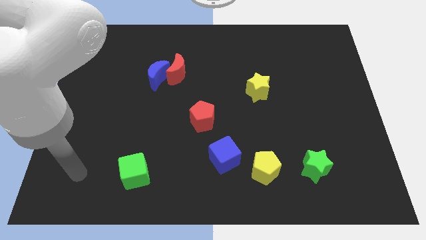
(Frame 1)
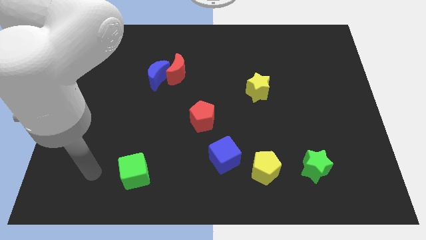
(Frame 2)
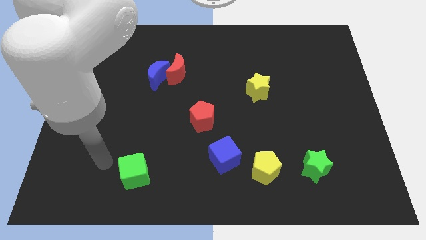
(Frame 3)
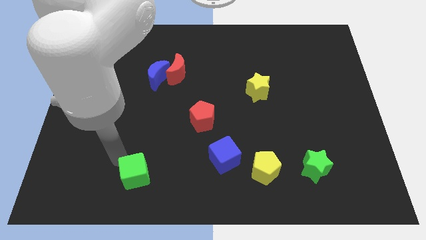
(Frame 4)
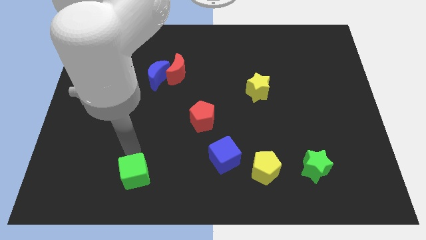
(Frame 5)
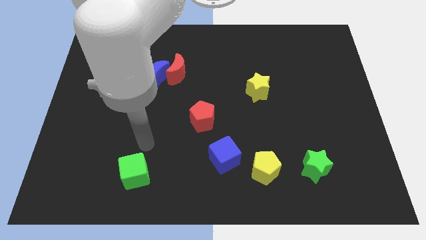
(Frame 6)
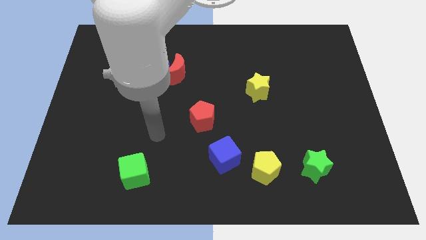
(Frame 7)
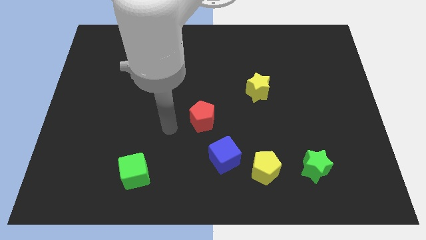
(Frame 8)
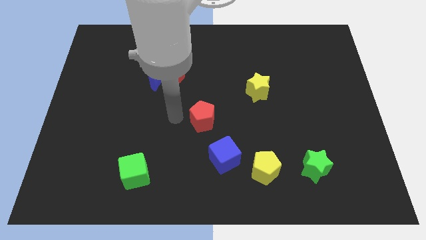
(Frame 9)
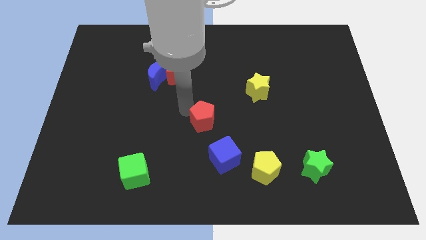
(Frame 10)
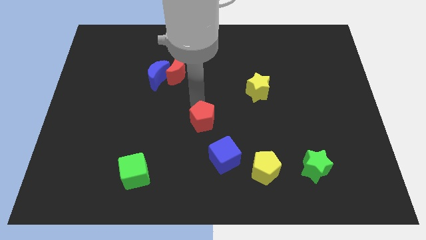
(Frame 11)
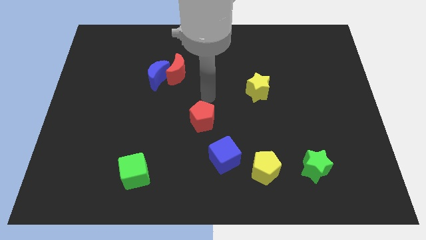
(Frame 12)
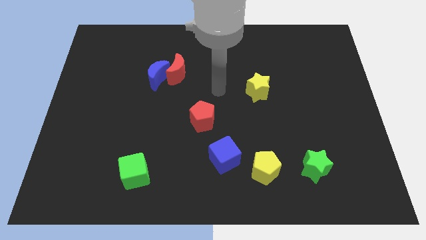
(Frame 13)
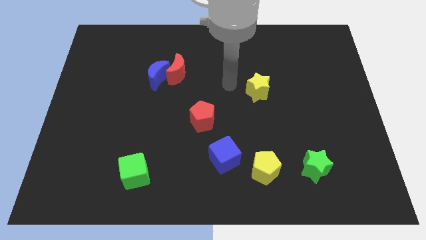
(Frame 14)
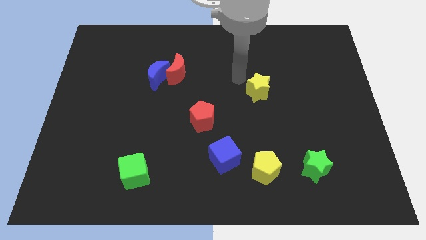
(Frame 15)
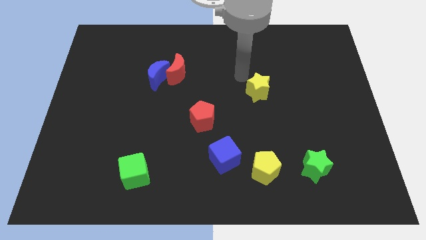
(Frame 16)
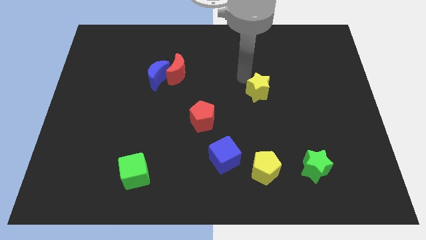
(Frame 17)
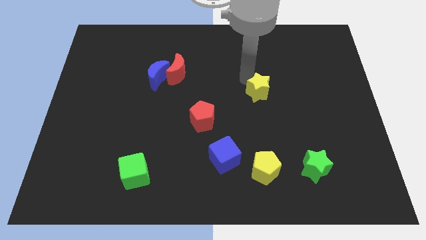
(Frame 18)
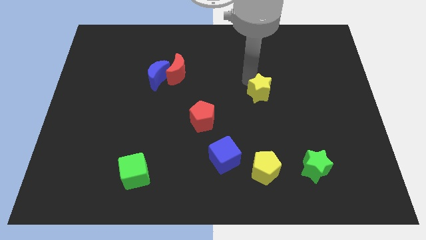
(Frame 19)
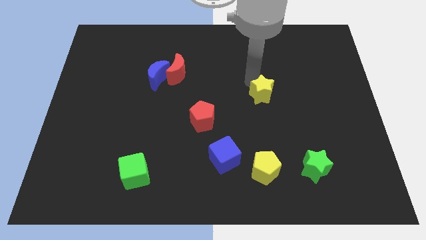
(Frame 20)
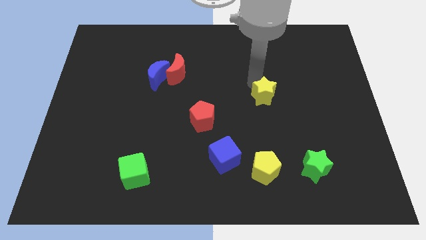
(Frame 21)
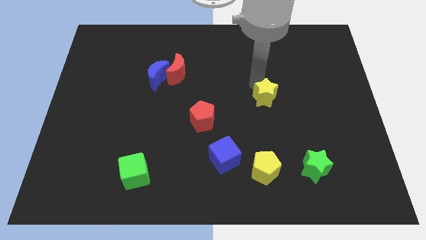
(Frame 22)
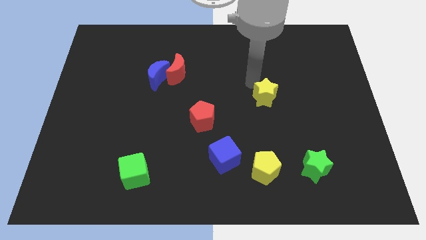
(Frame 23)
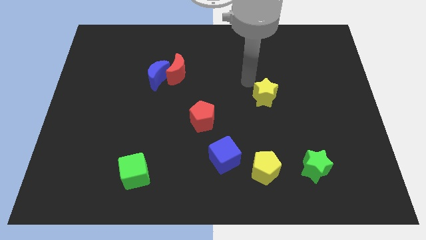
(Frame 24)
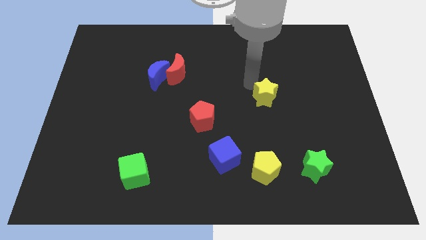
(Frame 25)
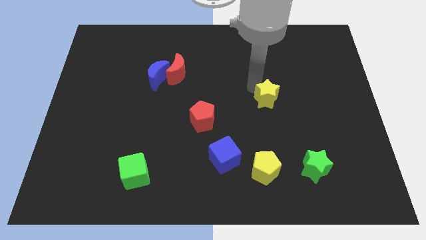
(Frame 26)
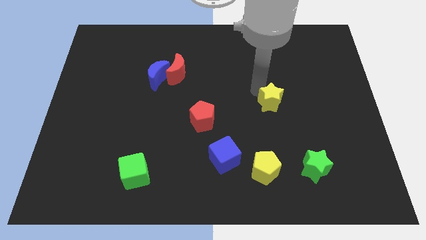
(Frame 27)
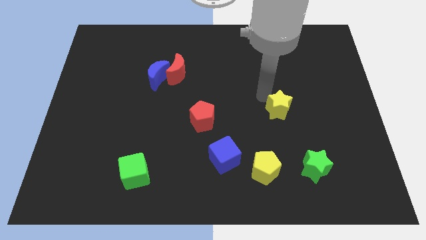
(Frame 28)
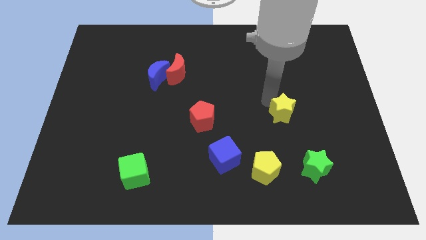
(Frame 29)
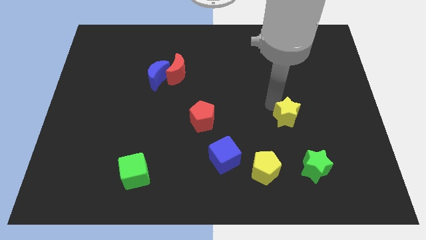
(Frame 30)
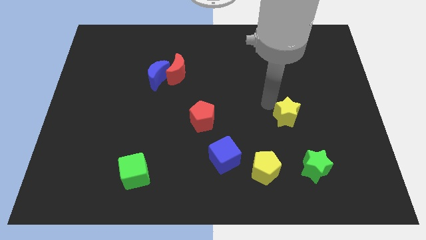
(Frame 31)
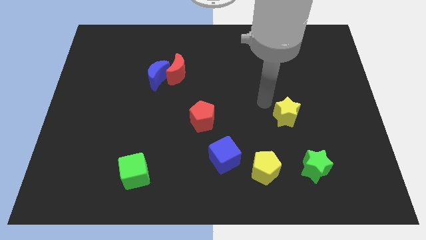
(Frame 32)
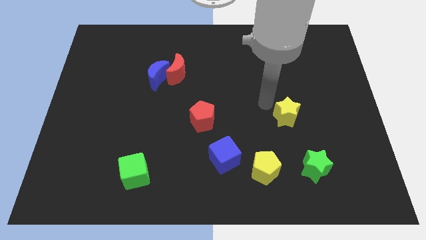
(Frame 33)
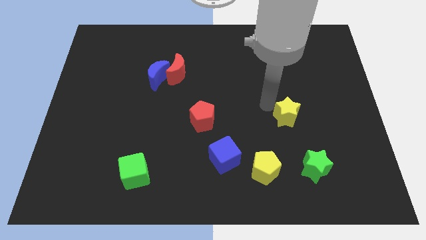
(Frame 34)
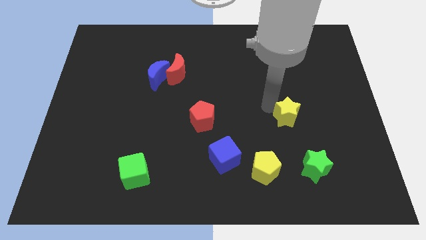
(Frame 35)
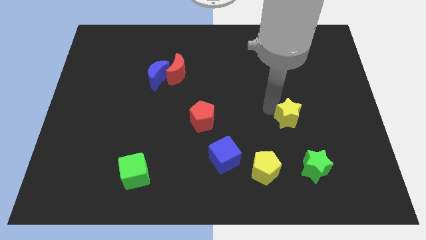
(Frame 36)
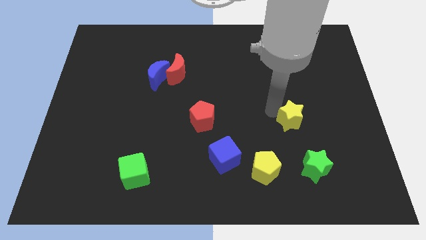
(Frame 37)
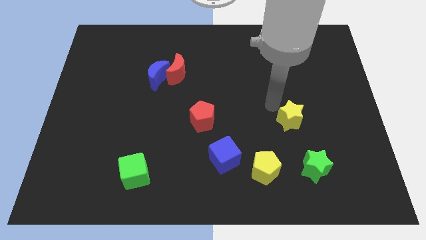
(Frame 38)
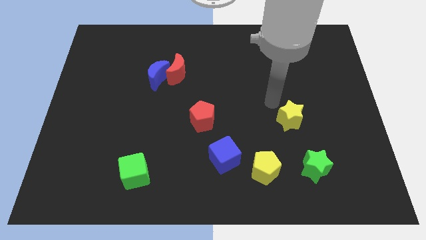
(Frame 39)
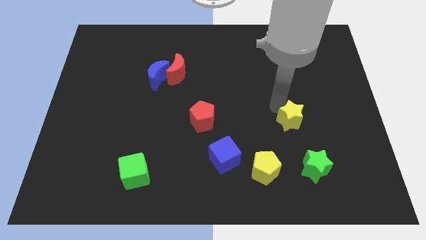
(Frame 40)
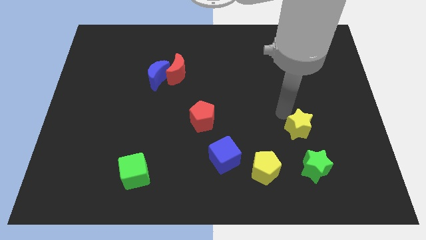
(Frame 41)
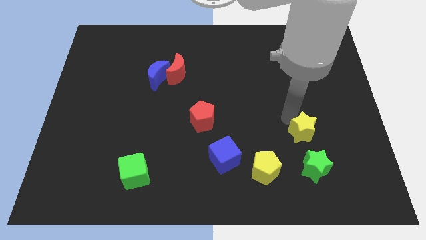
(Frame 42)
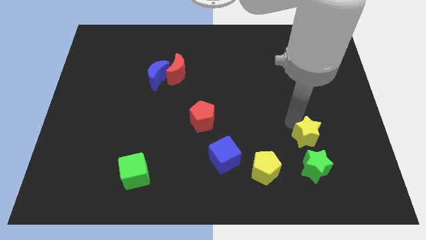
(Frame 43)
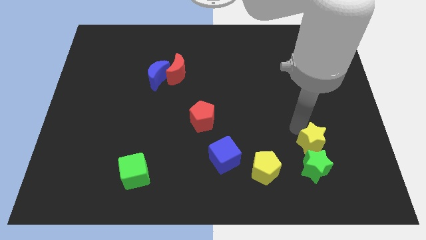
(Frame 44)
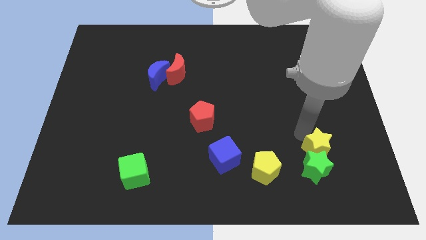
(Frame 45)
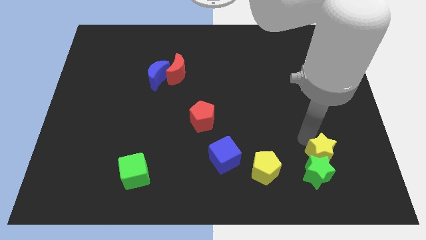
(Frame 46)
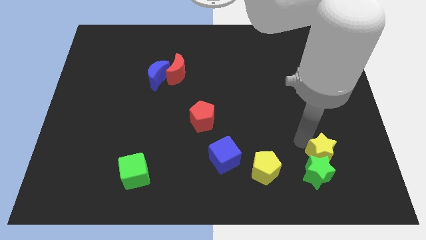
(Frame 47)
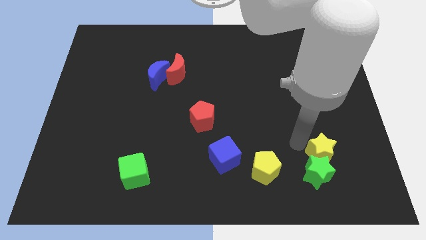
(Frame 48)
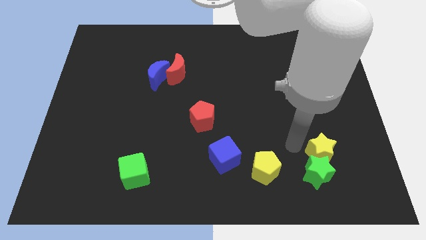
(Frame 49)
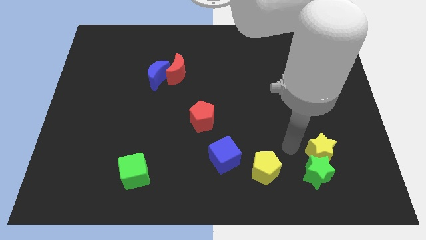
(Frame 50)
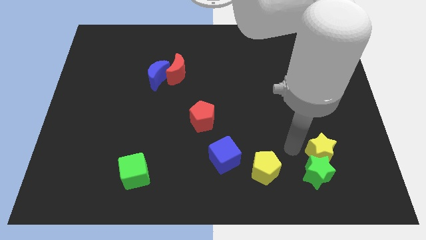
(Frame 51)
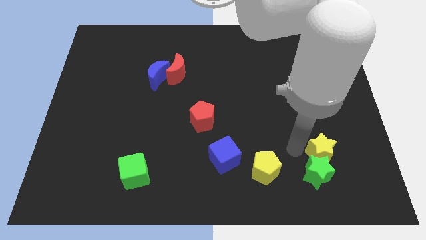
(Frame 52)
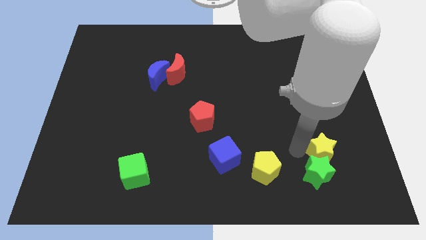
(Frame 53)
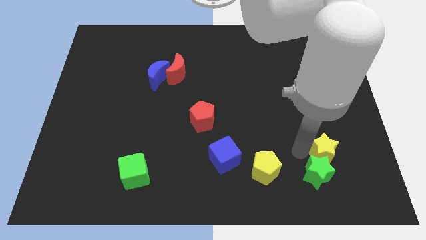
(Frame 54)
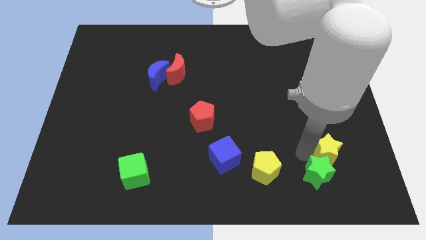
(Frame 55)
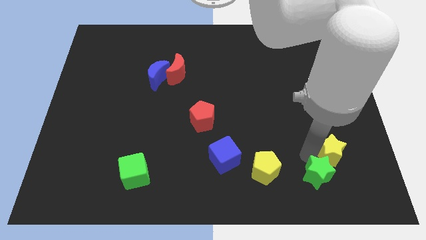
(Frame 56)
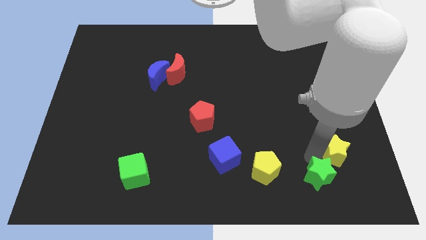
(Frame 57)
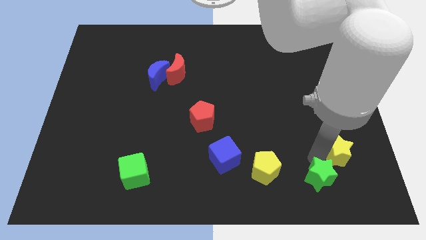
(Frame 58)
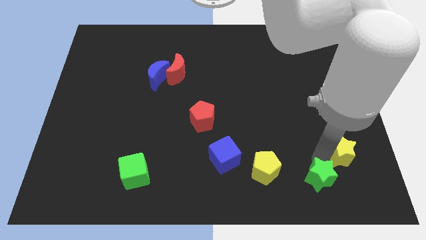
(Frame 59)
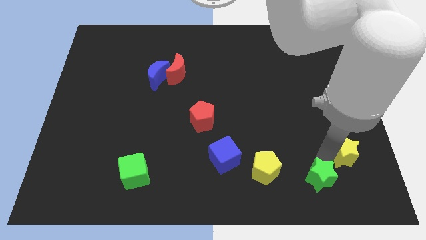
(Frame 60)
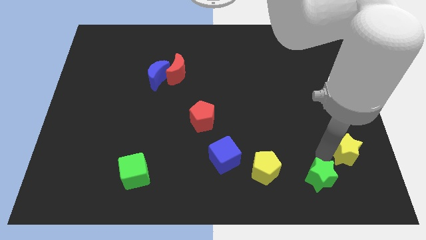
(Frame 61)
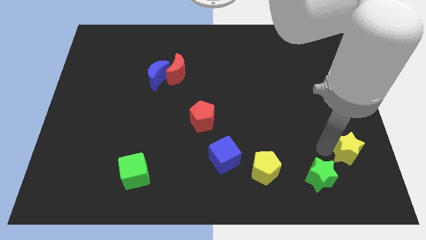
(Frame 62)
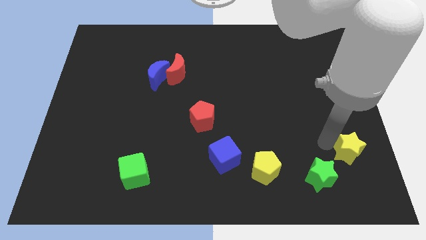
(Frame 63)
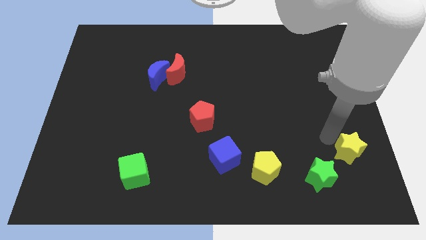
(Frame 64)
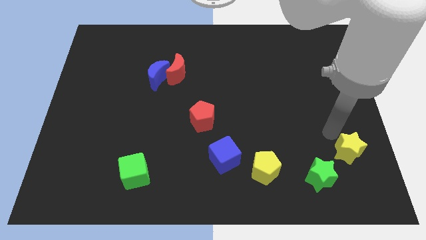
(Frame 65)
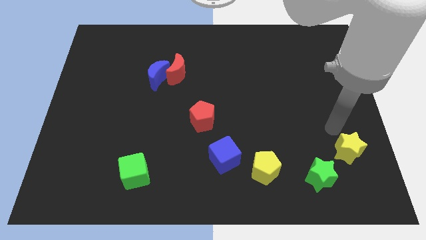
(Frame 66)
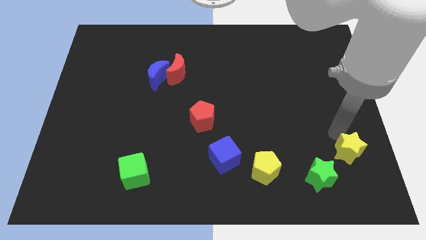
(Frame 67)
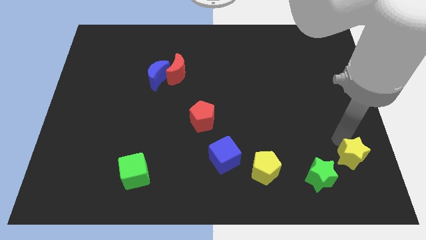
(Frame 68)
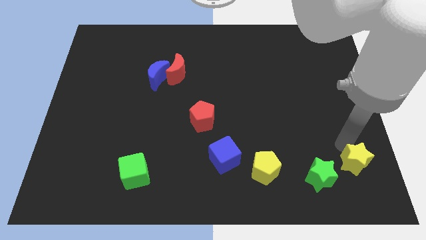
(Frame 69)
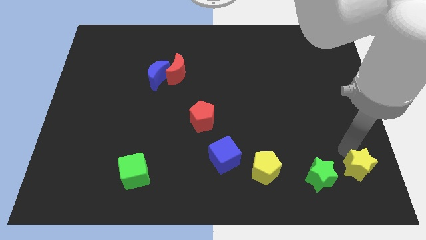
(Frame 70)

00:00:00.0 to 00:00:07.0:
put the yellow star to the bottom right corner
